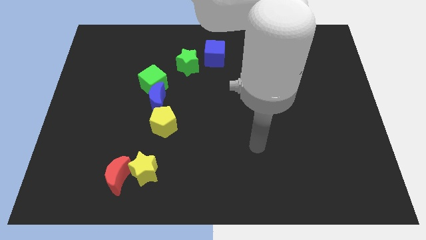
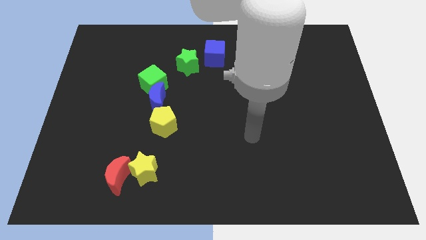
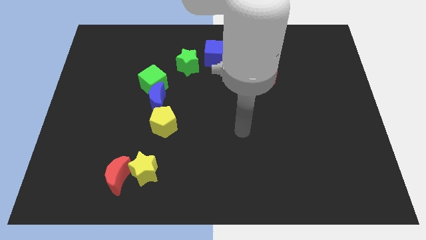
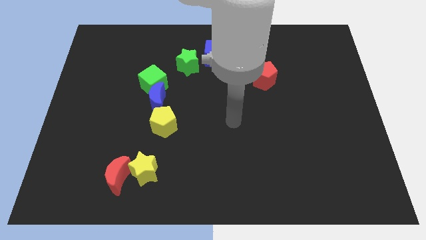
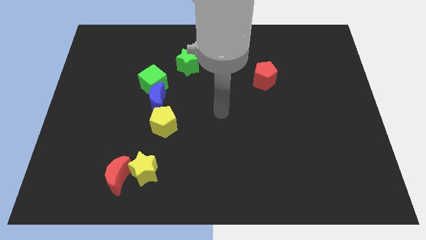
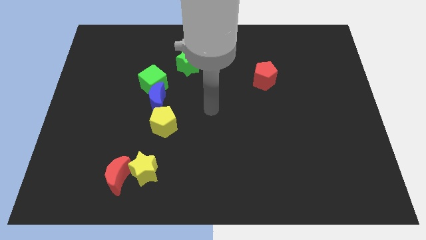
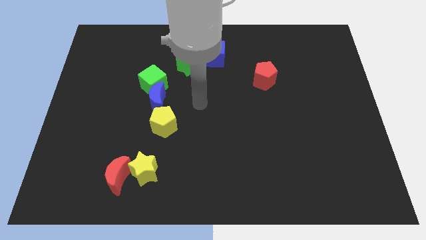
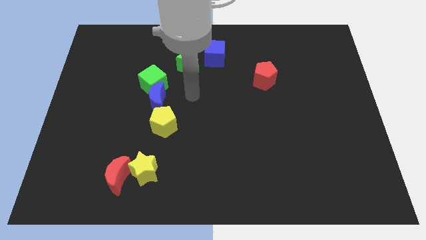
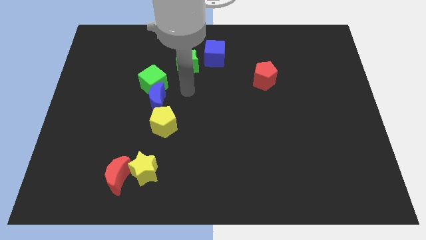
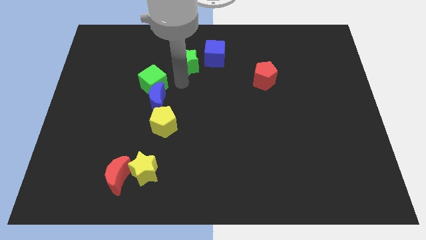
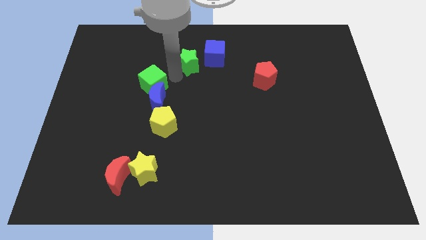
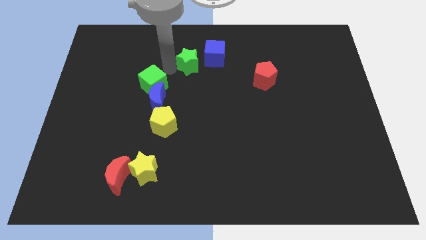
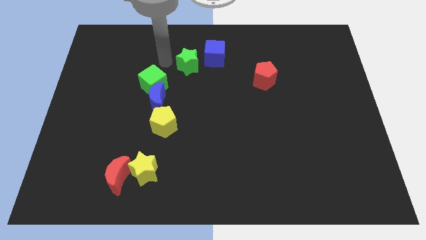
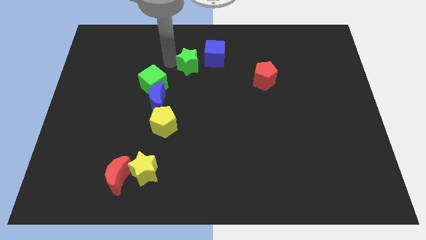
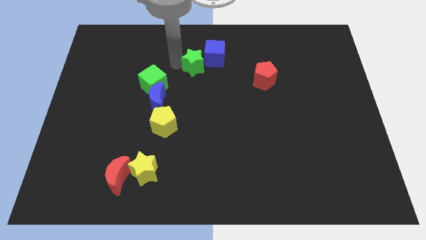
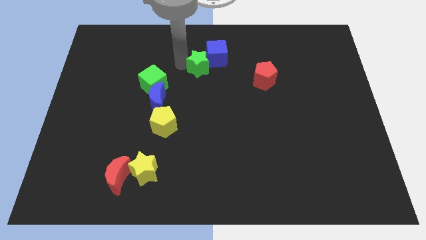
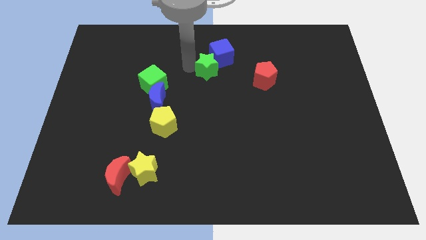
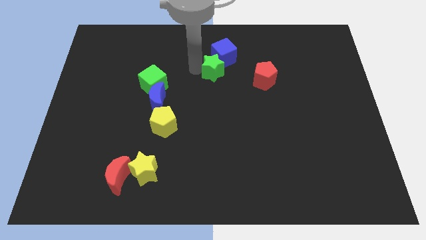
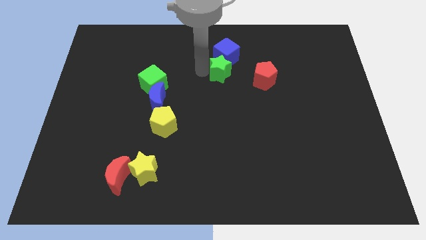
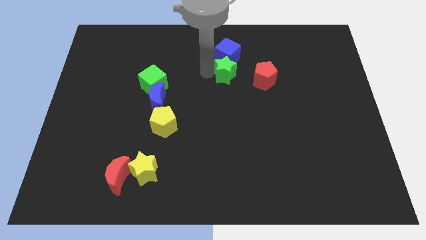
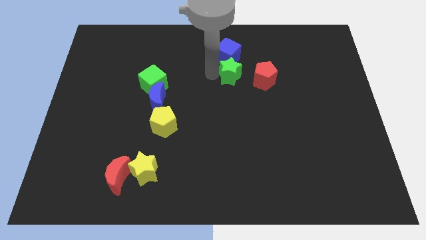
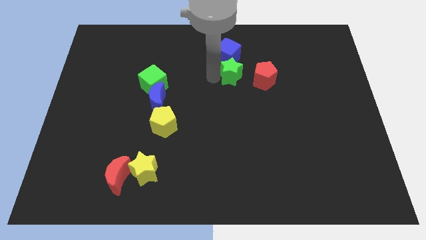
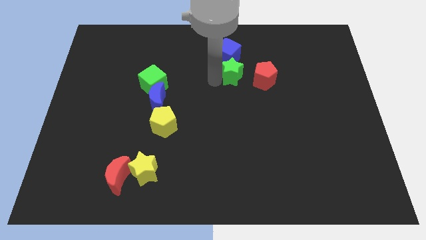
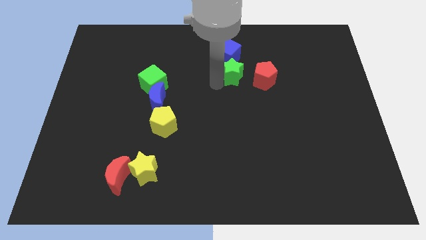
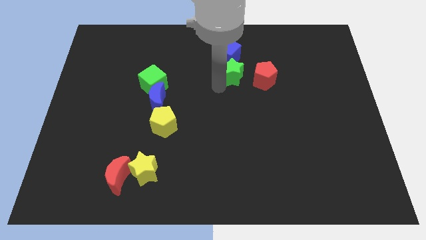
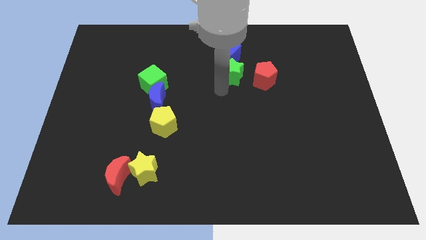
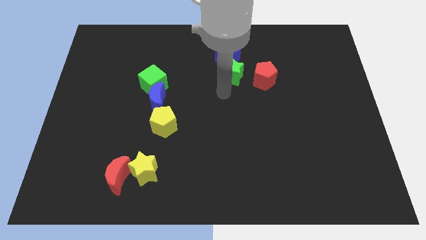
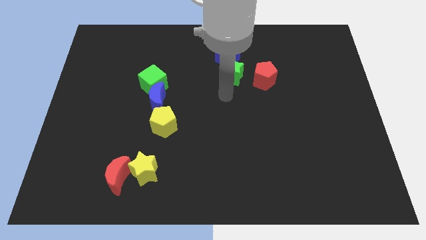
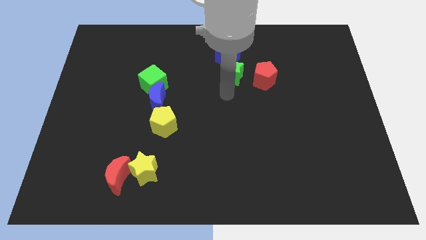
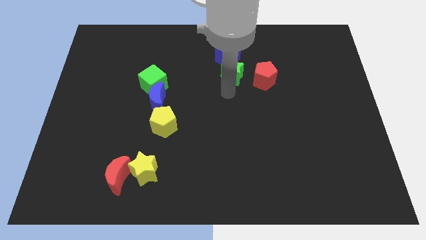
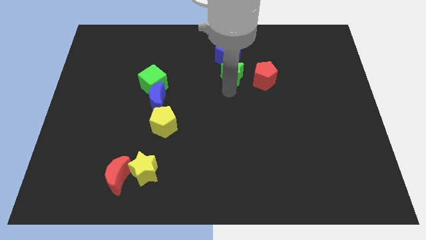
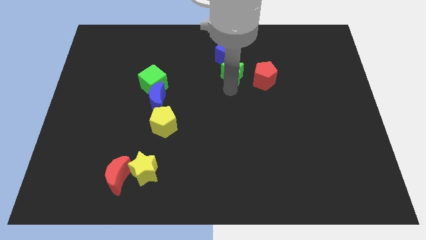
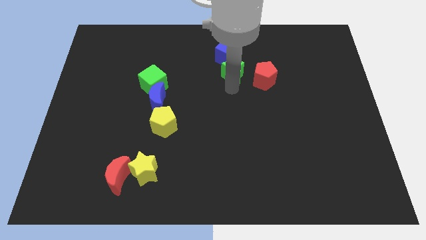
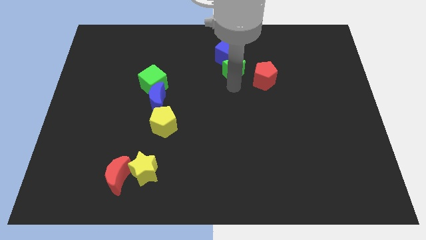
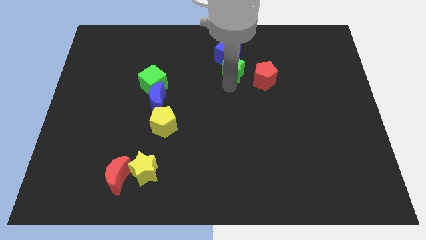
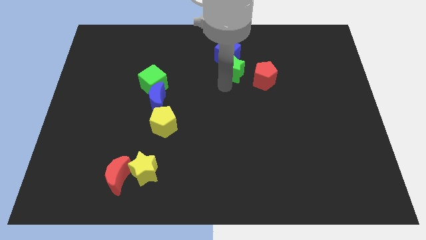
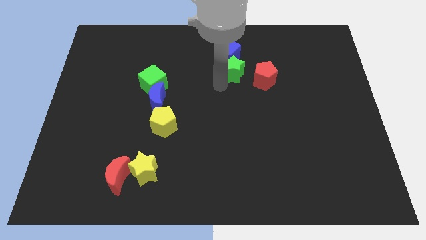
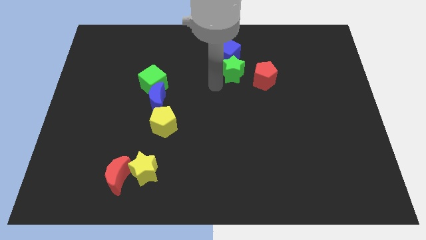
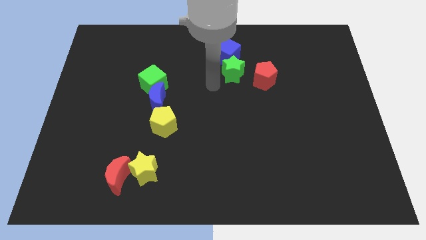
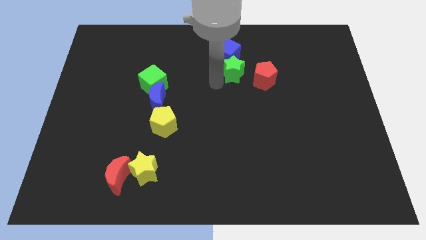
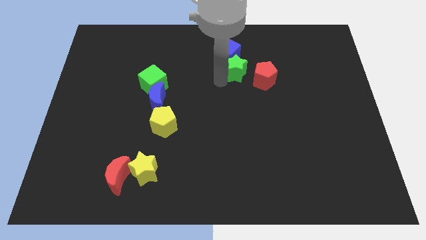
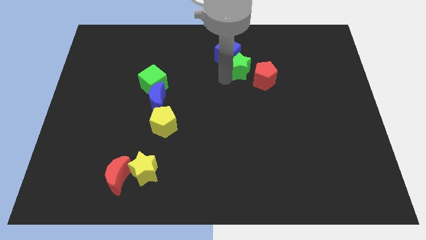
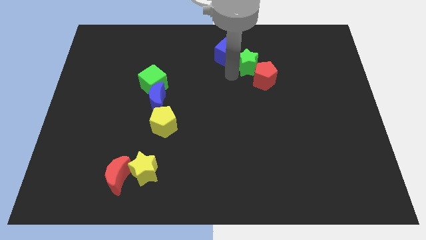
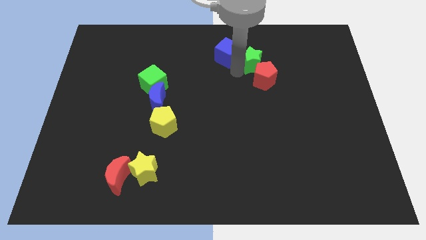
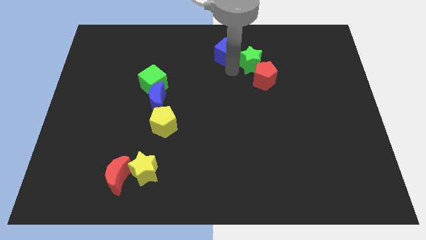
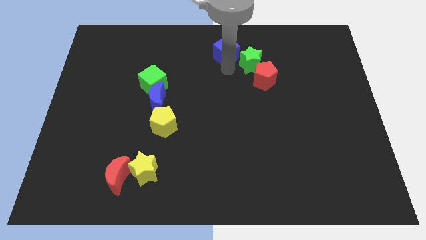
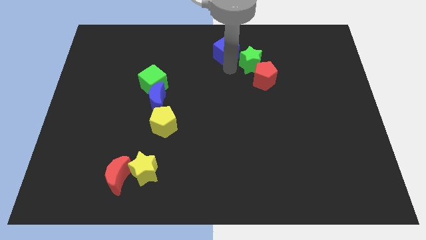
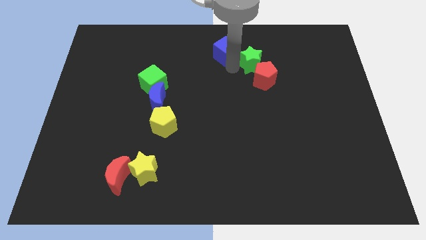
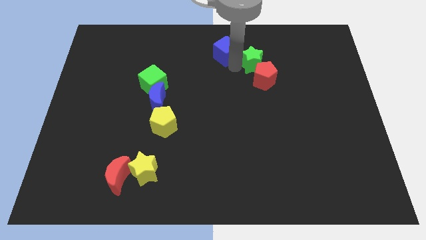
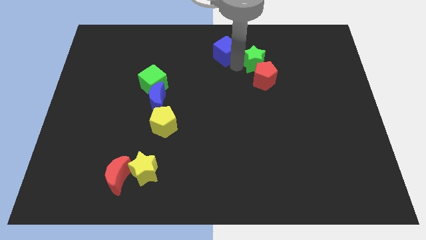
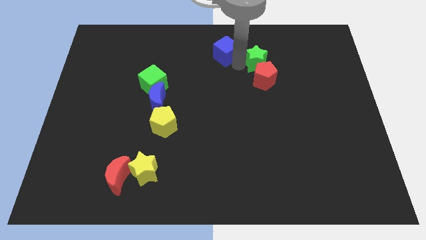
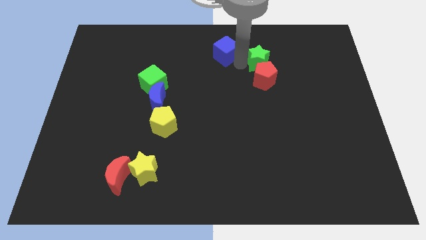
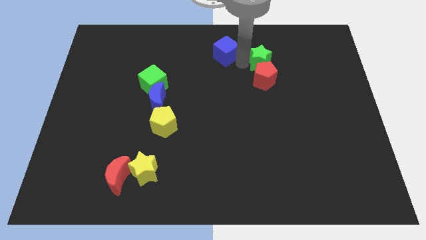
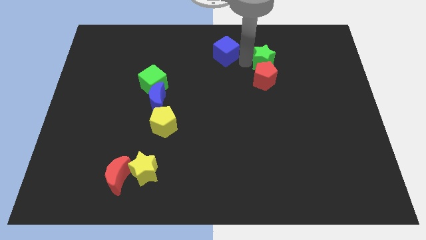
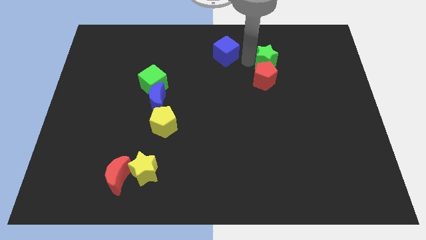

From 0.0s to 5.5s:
push the green star right

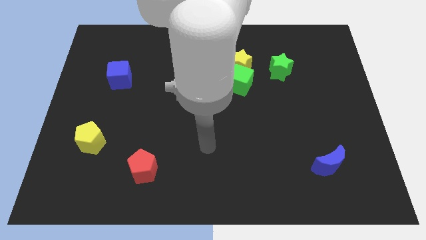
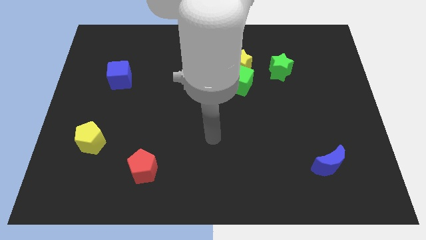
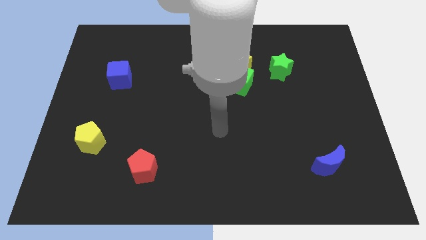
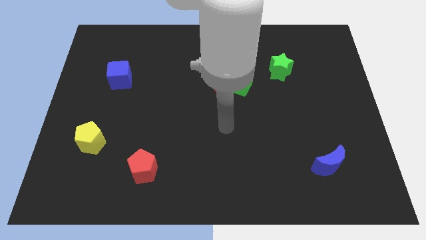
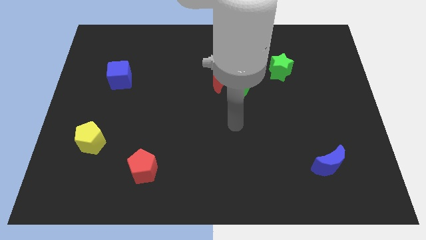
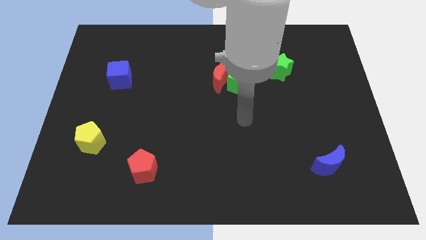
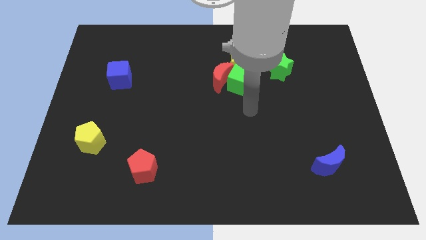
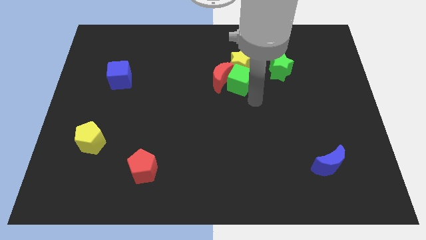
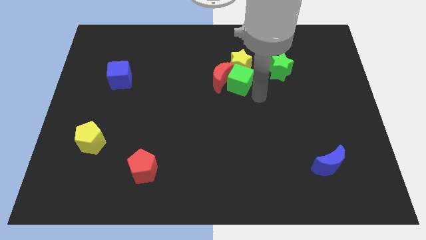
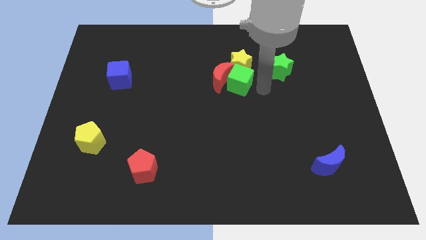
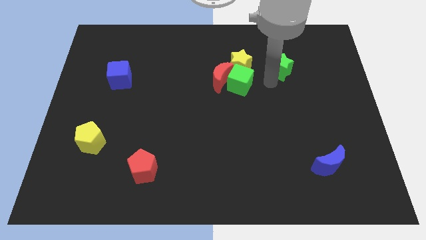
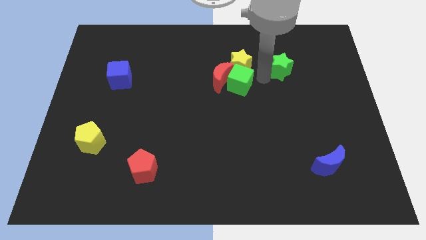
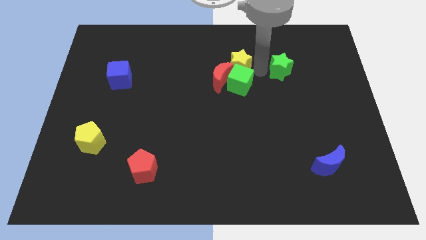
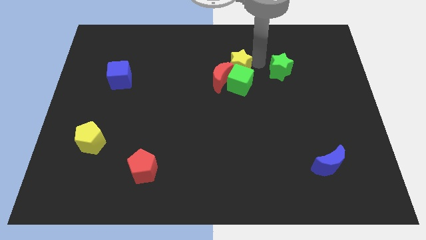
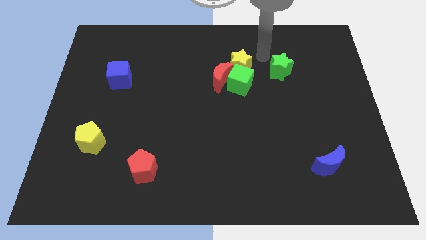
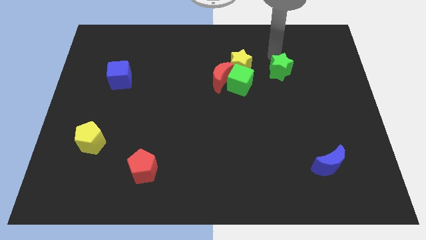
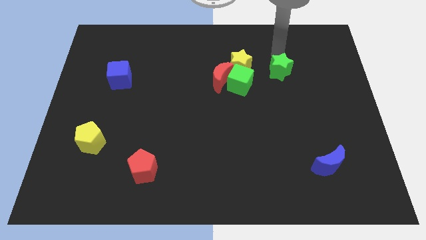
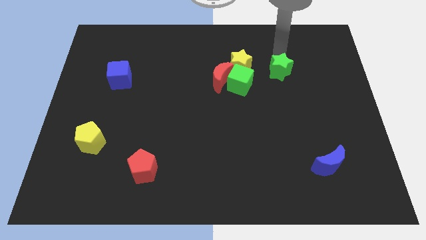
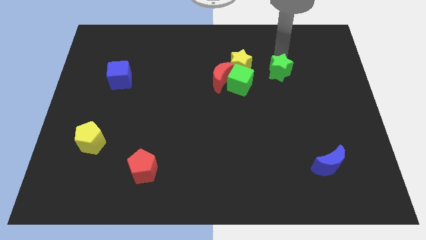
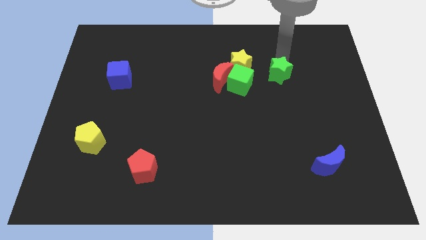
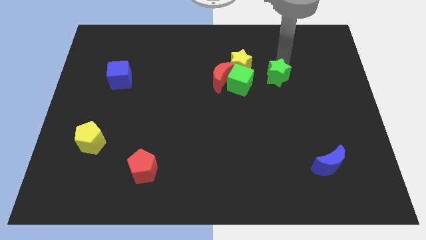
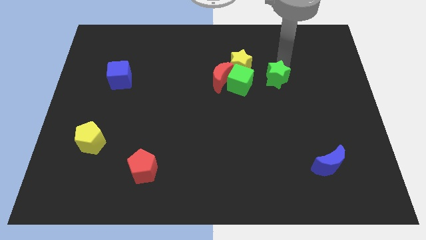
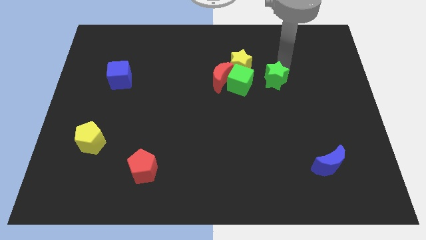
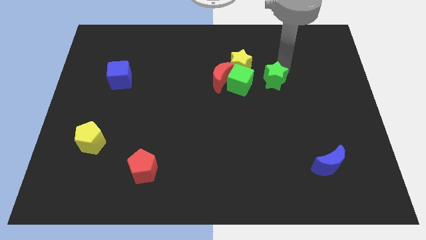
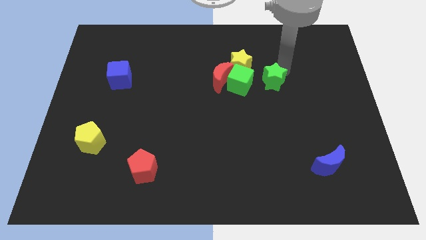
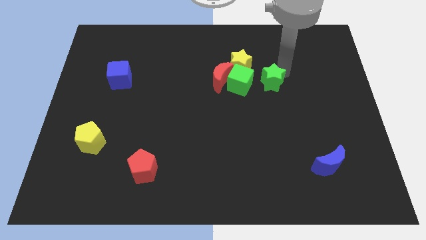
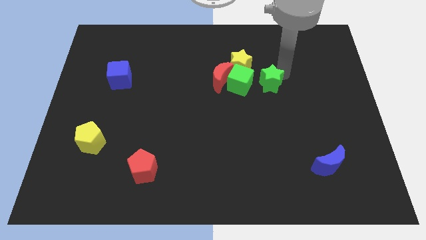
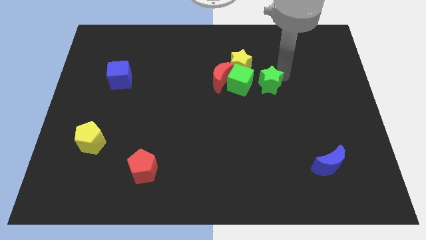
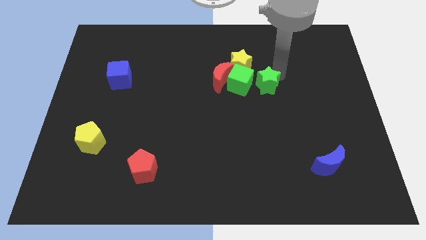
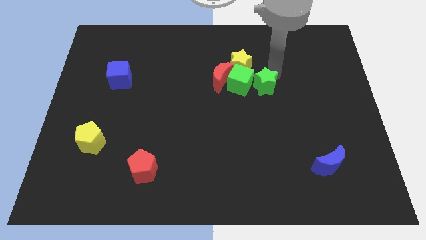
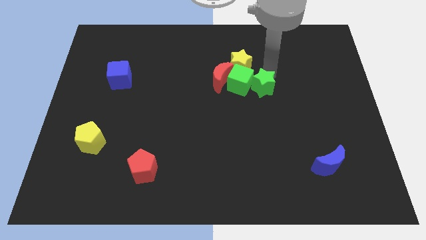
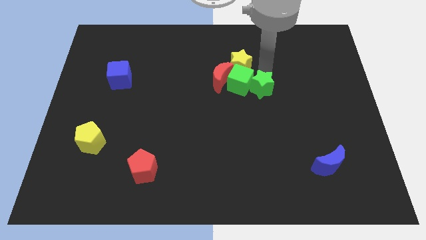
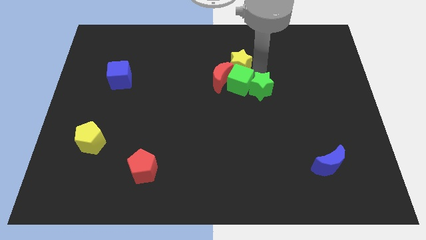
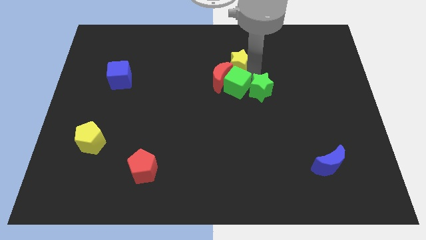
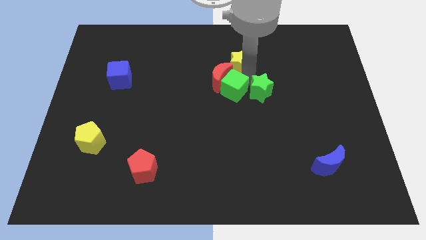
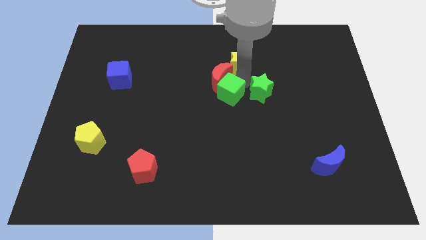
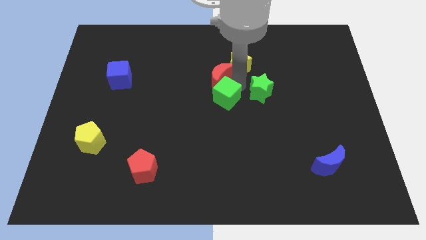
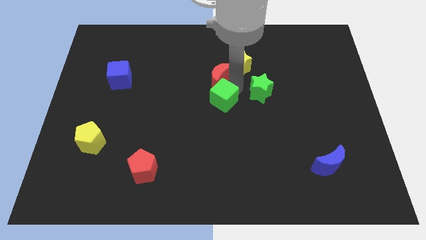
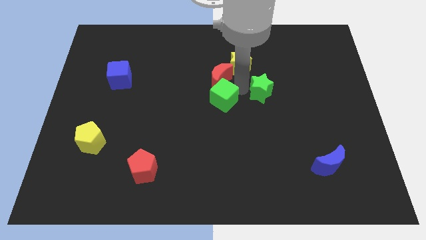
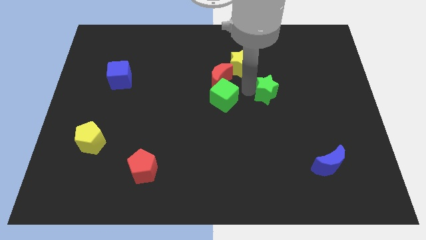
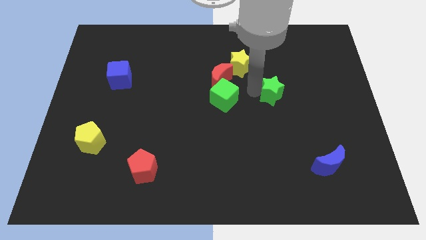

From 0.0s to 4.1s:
slide the green star downwards slightly
